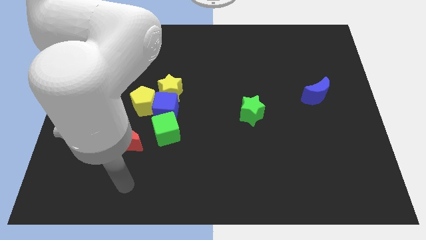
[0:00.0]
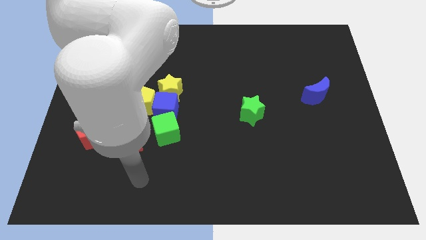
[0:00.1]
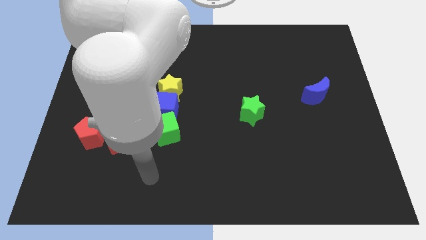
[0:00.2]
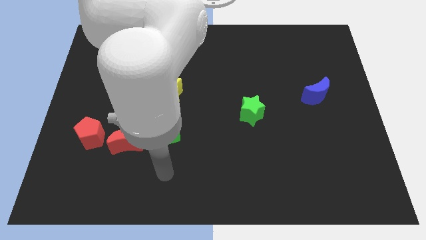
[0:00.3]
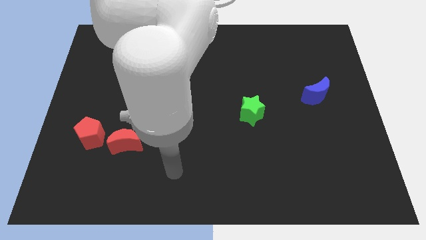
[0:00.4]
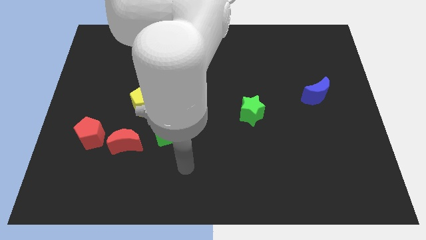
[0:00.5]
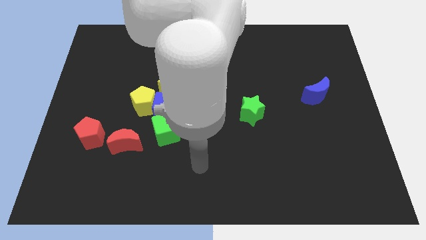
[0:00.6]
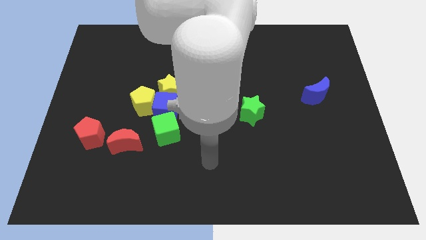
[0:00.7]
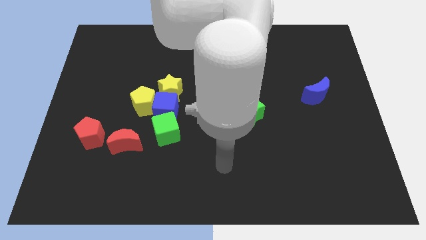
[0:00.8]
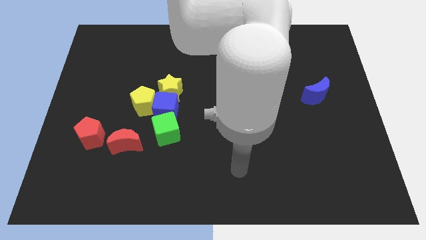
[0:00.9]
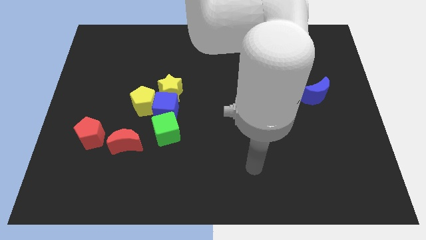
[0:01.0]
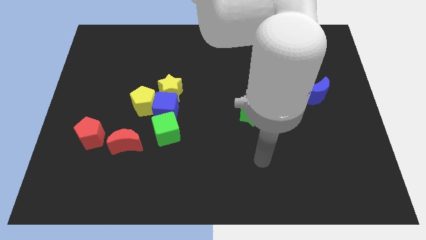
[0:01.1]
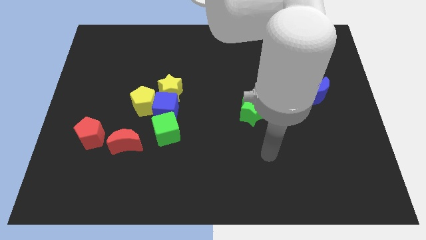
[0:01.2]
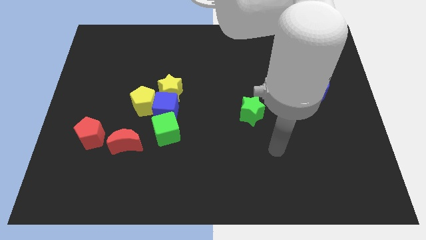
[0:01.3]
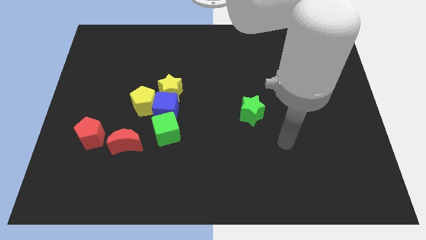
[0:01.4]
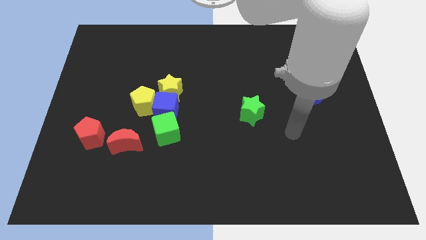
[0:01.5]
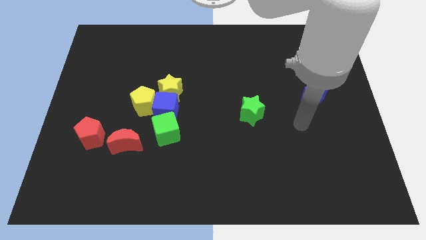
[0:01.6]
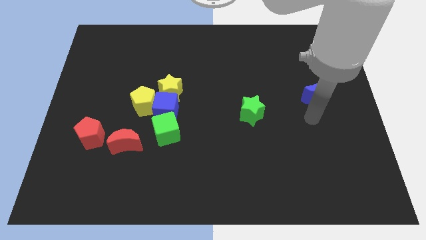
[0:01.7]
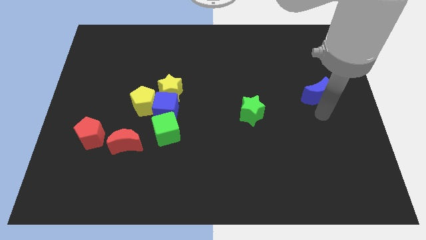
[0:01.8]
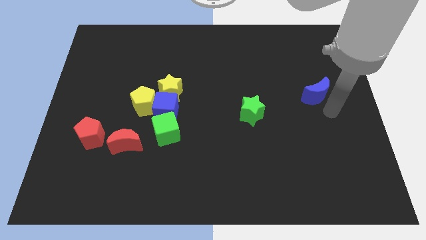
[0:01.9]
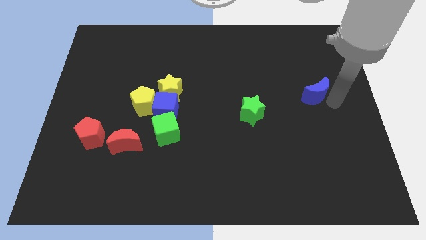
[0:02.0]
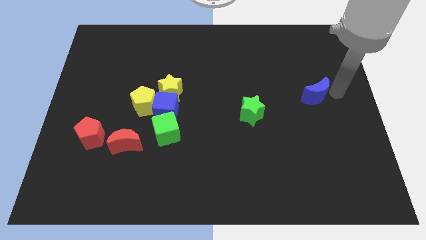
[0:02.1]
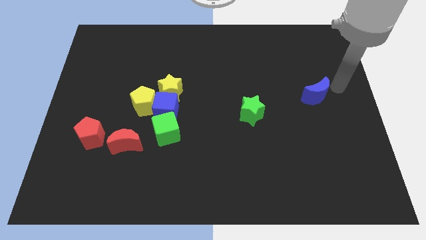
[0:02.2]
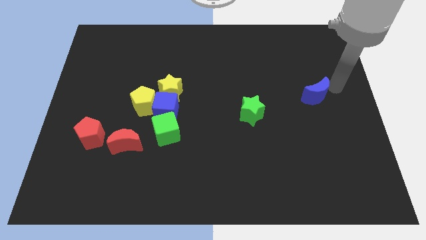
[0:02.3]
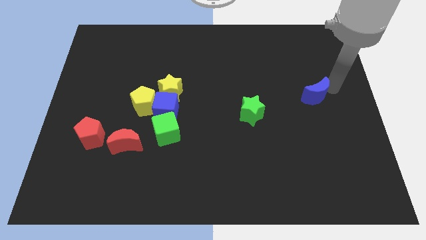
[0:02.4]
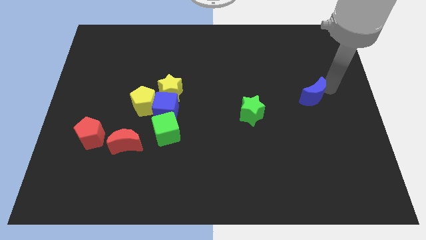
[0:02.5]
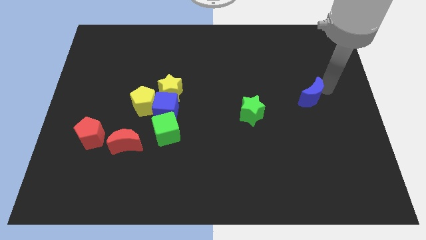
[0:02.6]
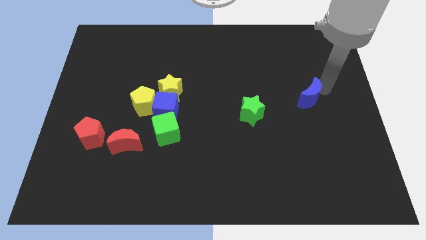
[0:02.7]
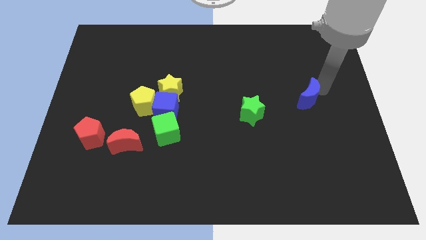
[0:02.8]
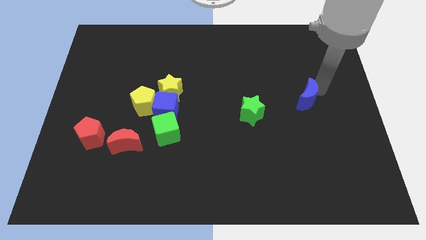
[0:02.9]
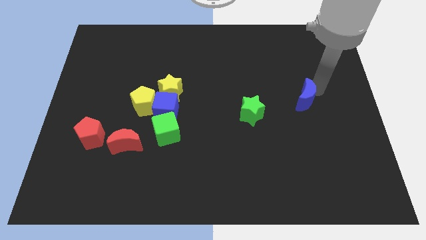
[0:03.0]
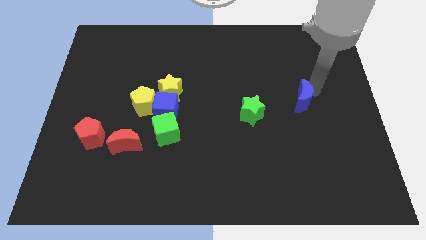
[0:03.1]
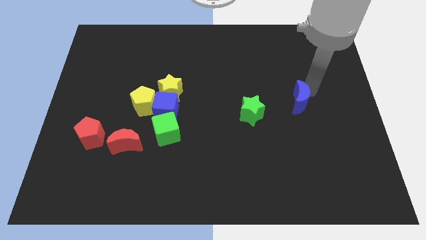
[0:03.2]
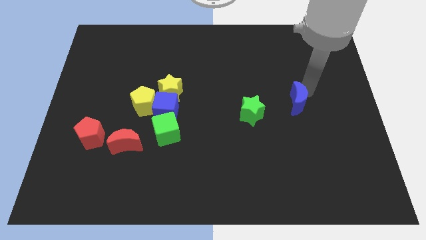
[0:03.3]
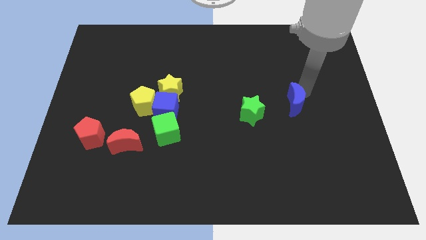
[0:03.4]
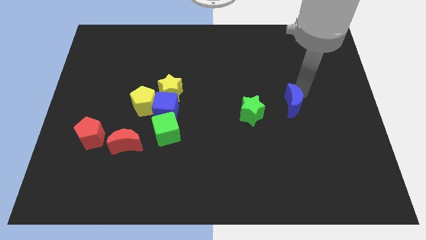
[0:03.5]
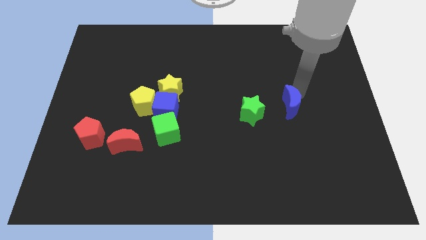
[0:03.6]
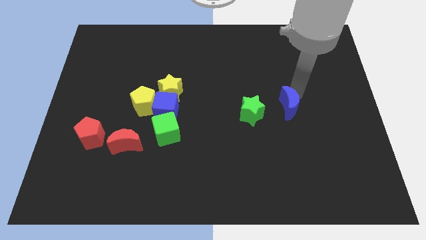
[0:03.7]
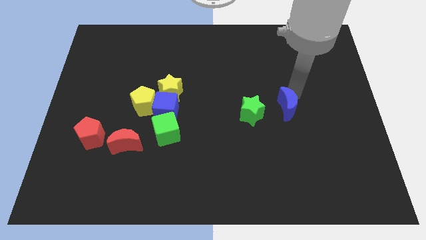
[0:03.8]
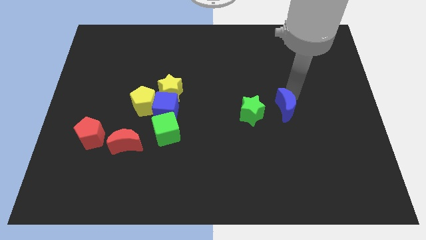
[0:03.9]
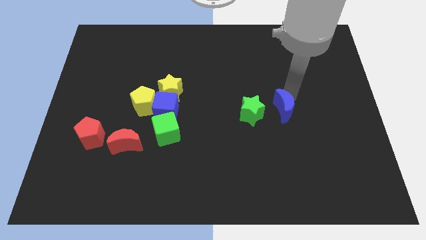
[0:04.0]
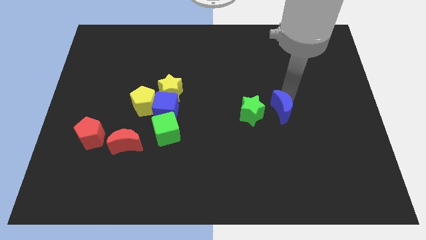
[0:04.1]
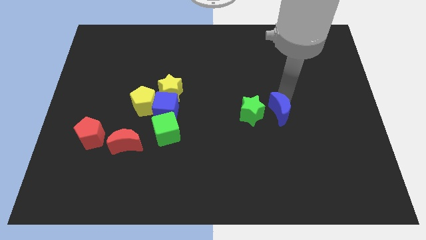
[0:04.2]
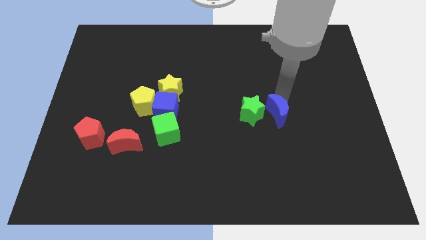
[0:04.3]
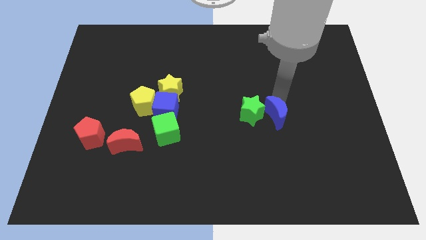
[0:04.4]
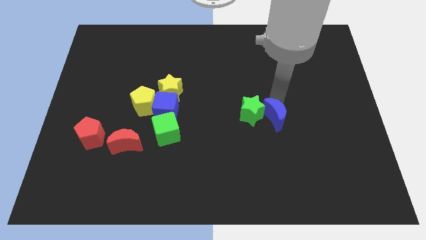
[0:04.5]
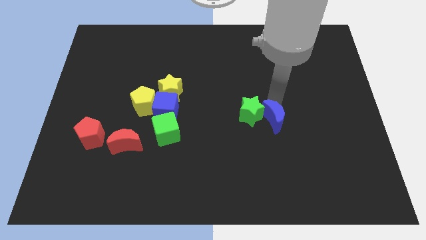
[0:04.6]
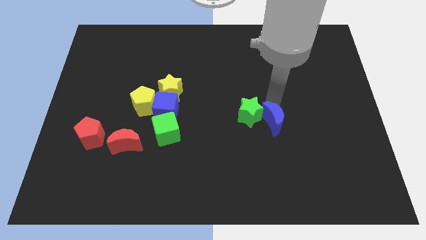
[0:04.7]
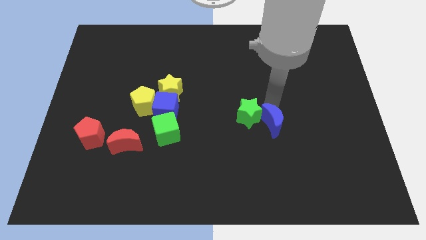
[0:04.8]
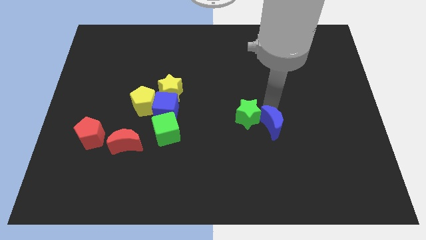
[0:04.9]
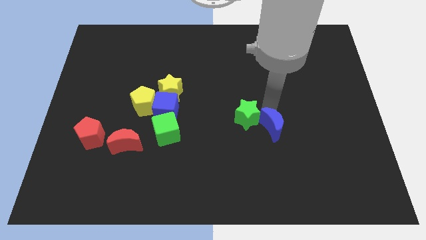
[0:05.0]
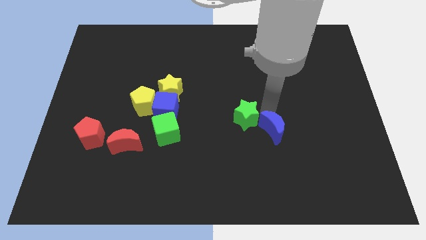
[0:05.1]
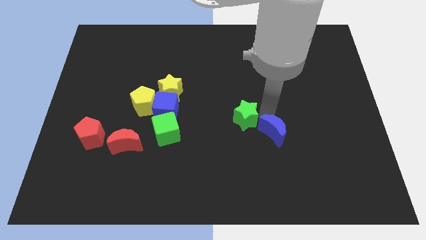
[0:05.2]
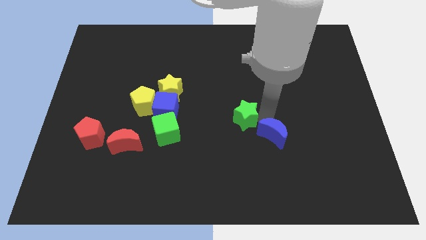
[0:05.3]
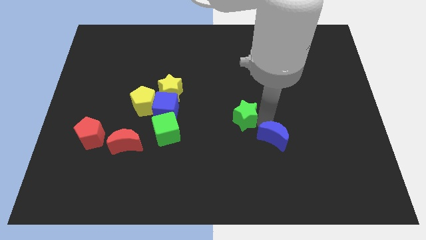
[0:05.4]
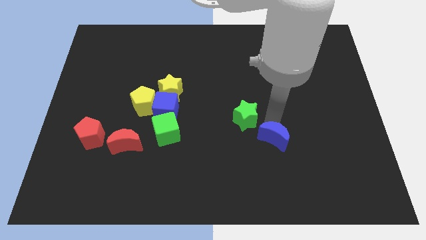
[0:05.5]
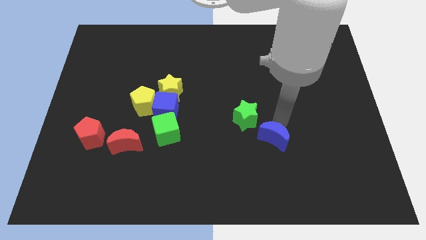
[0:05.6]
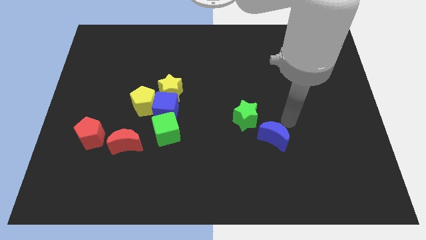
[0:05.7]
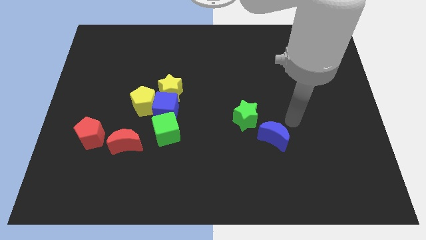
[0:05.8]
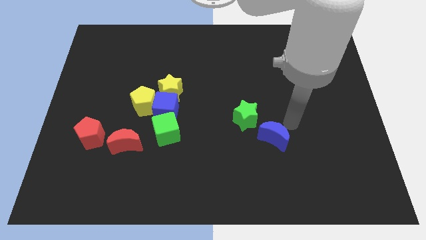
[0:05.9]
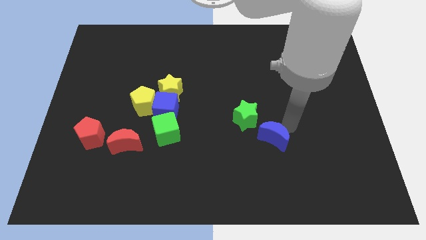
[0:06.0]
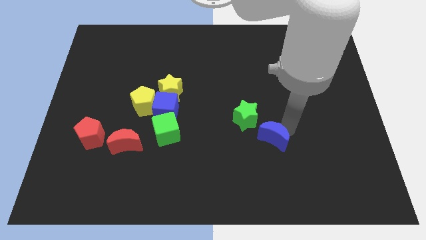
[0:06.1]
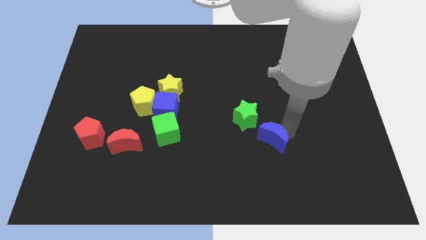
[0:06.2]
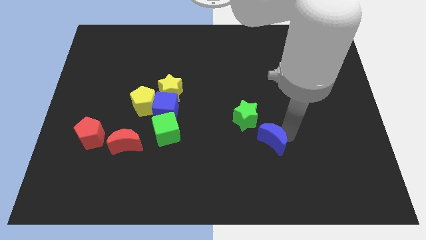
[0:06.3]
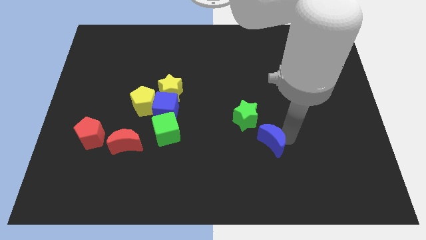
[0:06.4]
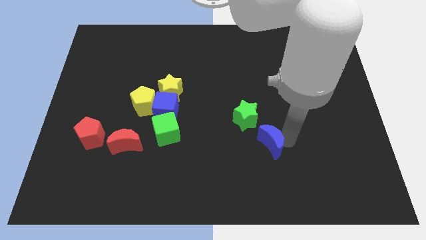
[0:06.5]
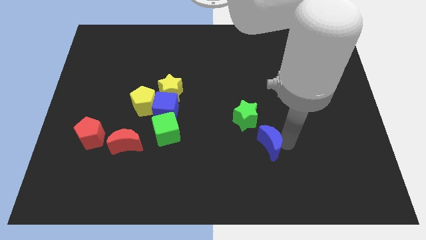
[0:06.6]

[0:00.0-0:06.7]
put the blue moon below the green star

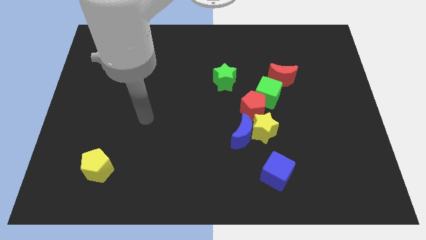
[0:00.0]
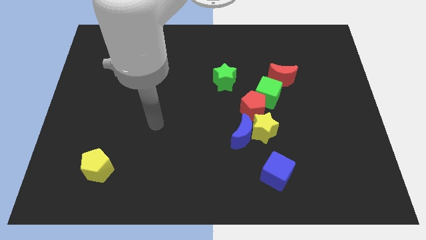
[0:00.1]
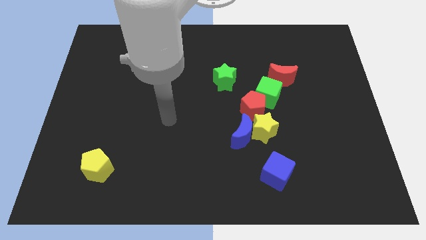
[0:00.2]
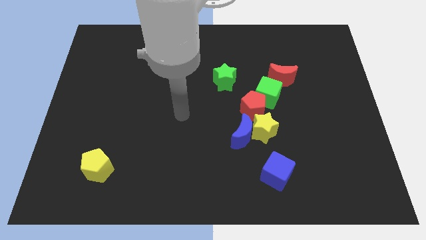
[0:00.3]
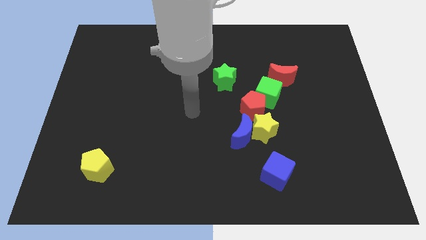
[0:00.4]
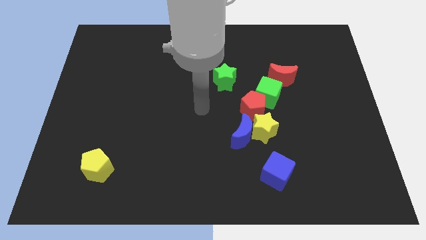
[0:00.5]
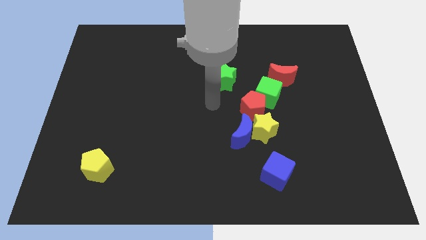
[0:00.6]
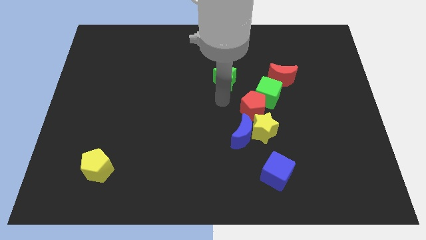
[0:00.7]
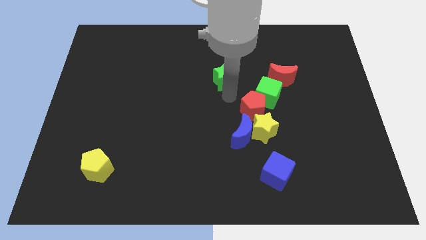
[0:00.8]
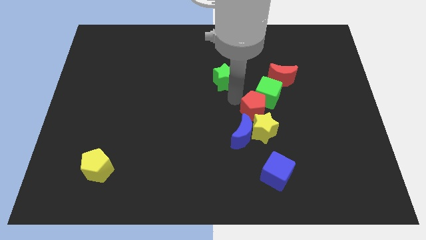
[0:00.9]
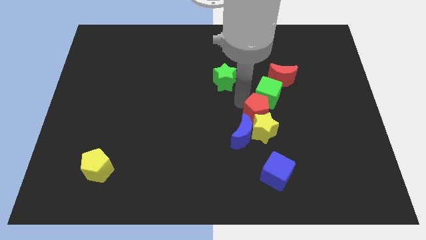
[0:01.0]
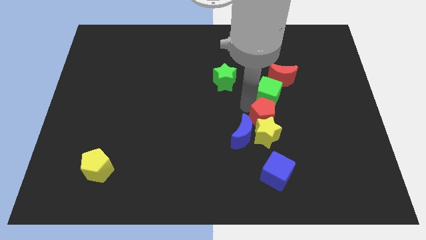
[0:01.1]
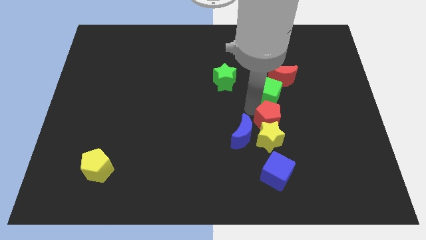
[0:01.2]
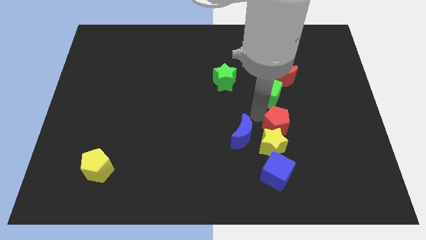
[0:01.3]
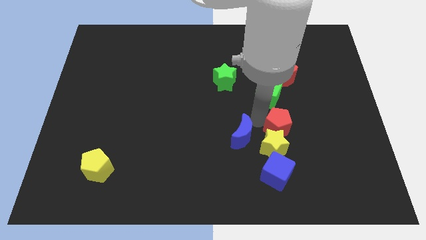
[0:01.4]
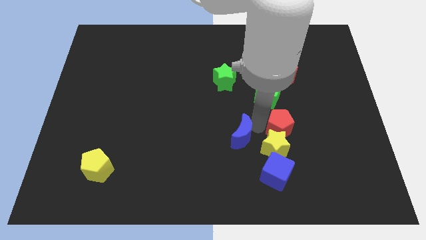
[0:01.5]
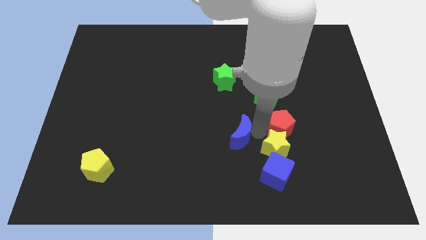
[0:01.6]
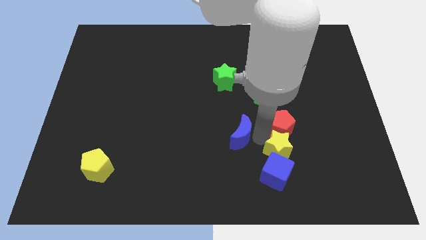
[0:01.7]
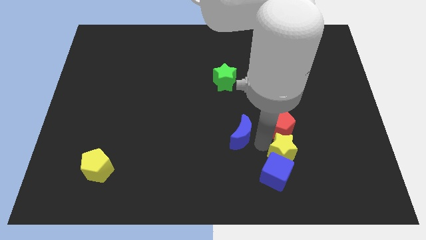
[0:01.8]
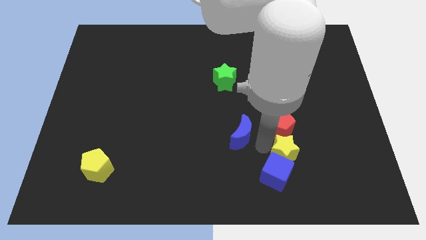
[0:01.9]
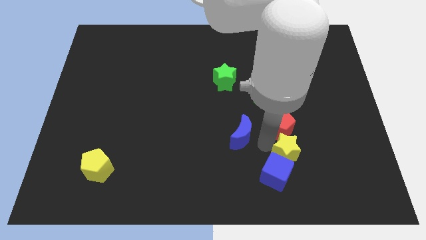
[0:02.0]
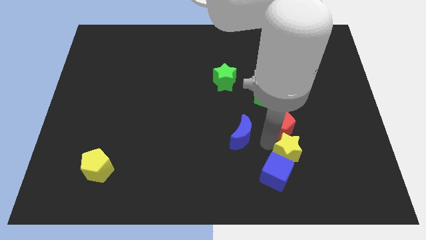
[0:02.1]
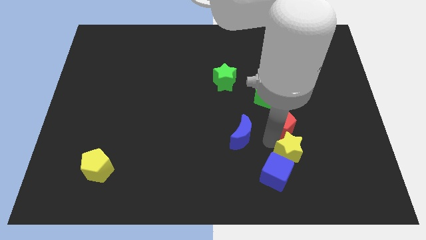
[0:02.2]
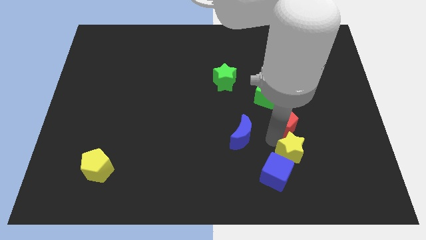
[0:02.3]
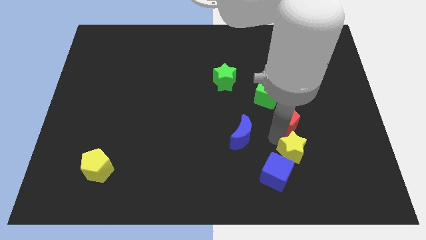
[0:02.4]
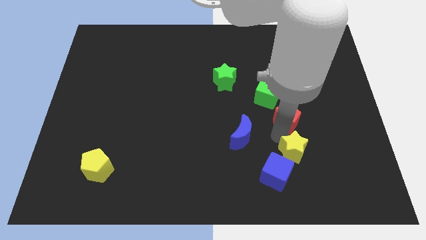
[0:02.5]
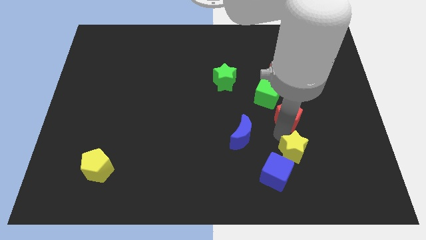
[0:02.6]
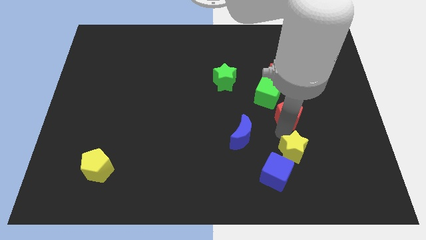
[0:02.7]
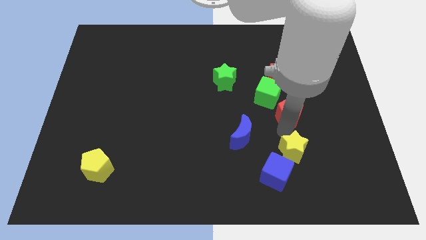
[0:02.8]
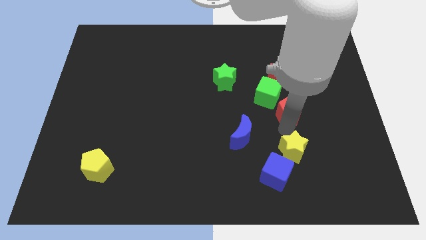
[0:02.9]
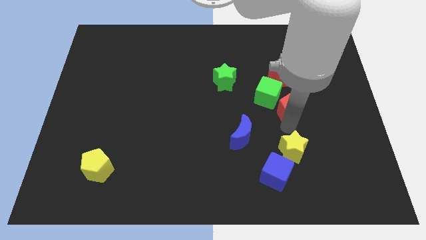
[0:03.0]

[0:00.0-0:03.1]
move the red pentagon to the right side of the green cube
